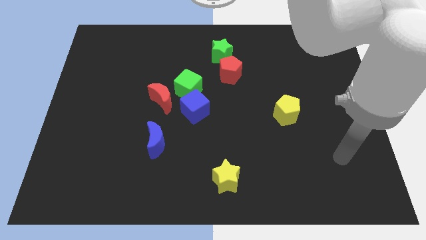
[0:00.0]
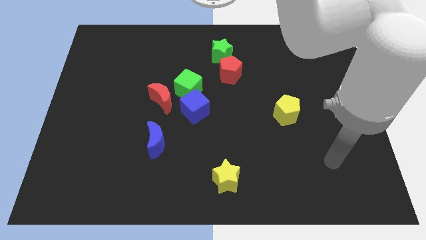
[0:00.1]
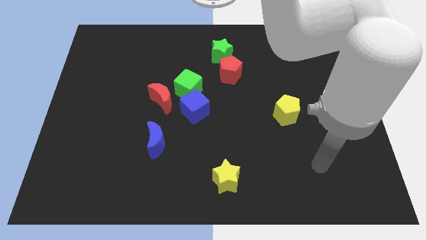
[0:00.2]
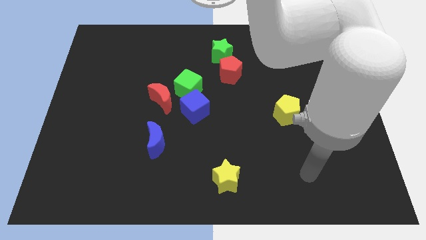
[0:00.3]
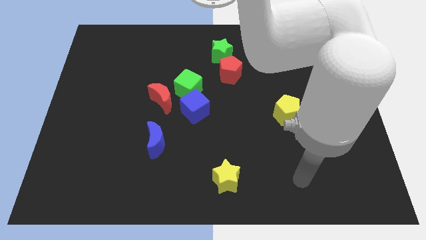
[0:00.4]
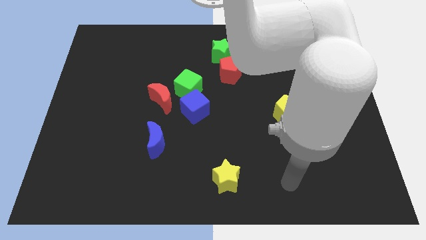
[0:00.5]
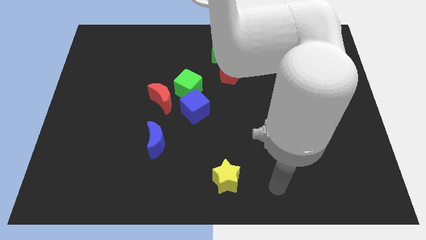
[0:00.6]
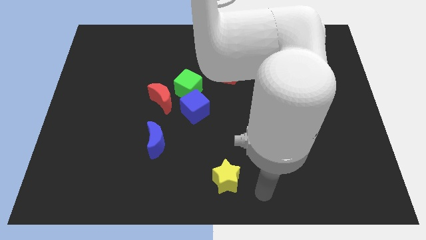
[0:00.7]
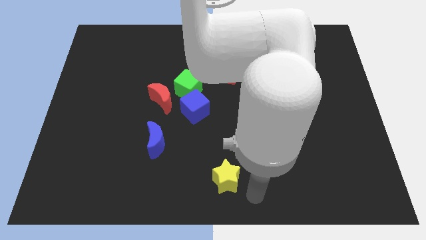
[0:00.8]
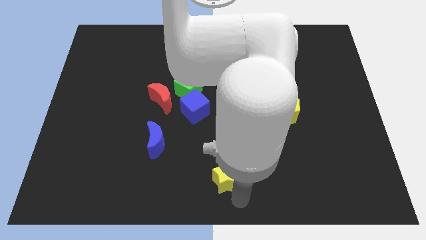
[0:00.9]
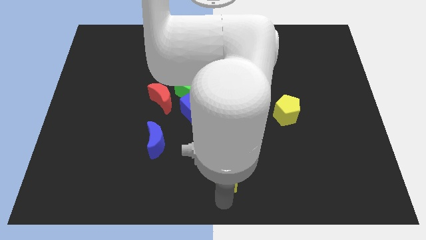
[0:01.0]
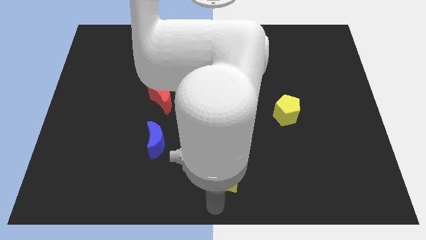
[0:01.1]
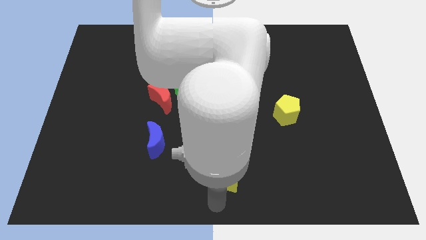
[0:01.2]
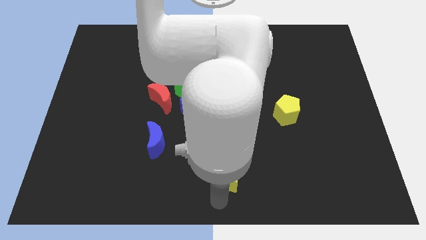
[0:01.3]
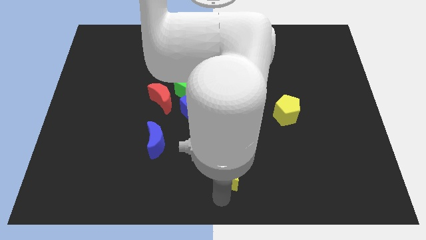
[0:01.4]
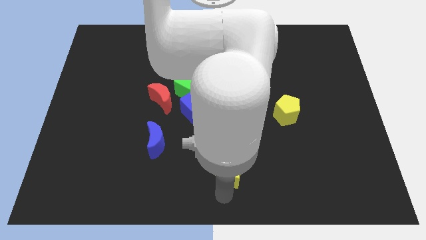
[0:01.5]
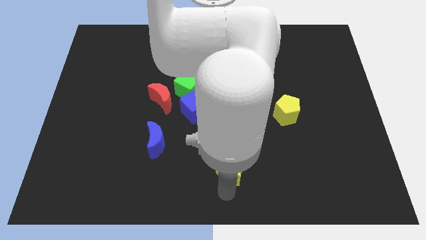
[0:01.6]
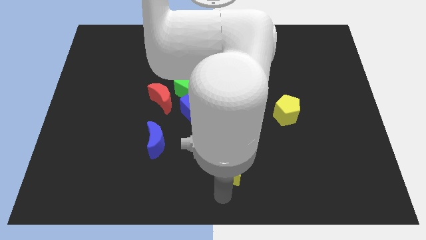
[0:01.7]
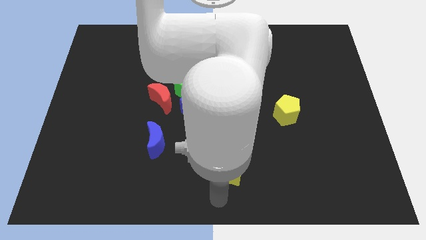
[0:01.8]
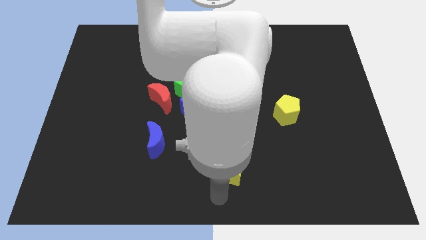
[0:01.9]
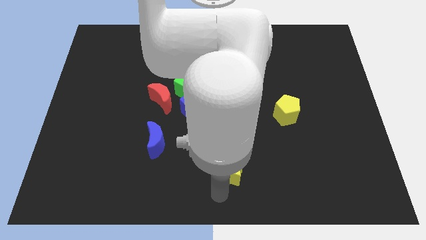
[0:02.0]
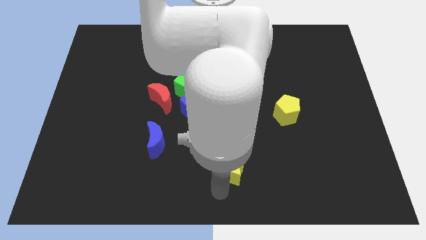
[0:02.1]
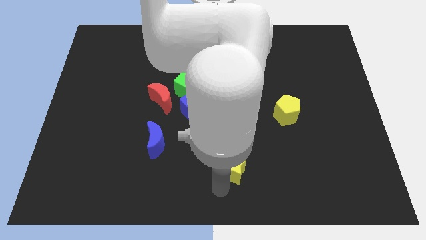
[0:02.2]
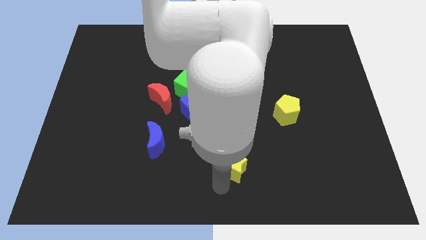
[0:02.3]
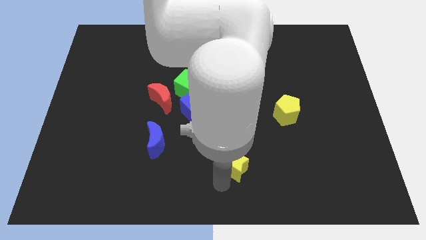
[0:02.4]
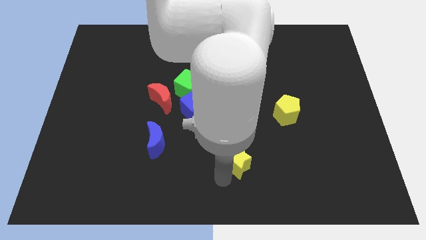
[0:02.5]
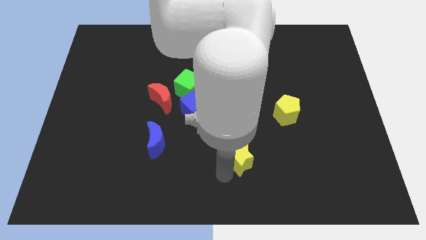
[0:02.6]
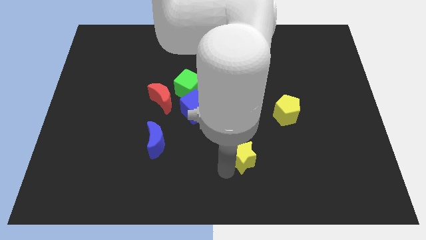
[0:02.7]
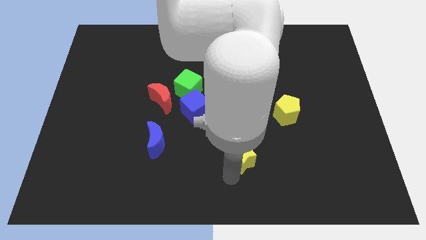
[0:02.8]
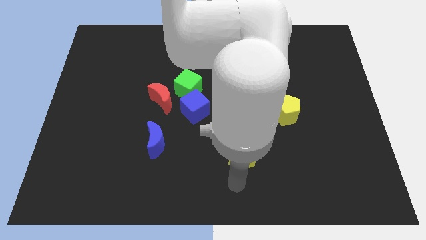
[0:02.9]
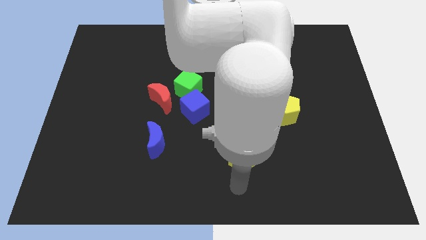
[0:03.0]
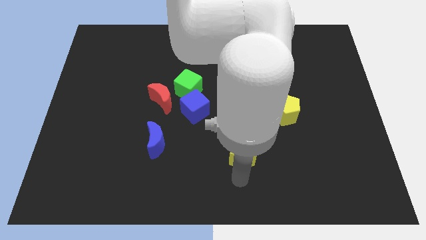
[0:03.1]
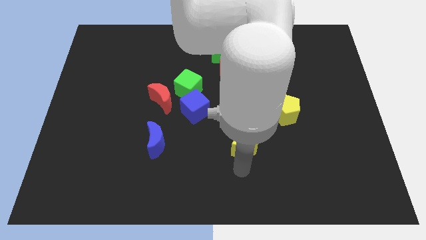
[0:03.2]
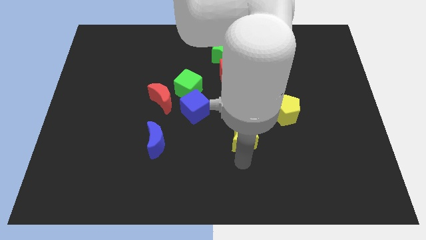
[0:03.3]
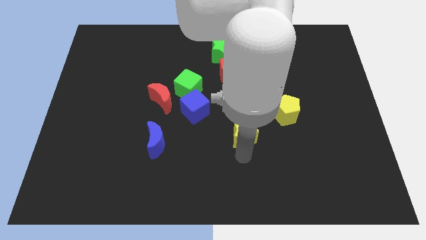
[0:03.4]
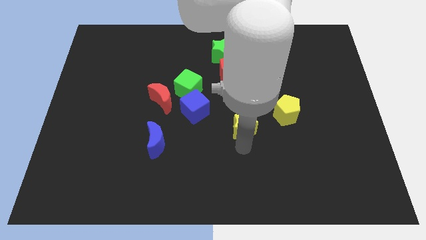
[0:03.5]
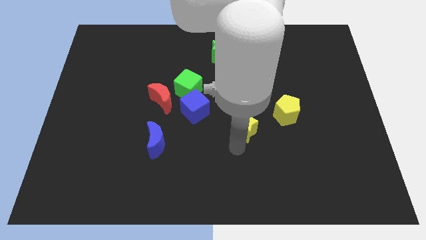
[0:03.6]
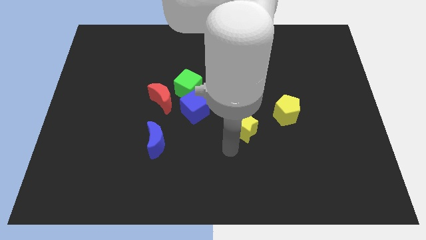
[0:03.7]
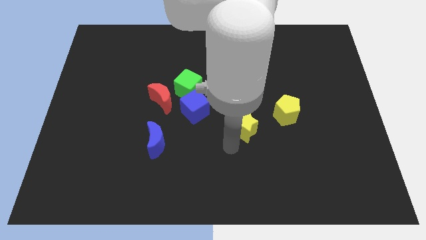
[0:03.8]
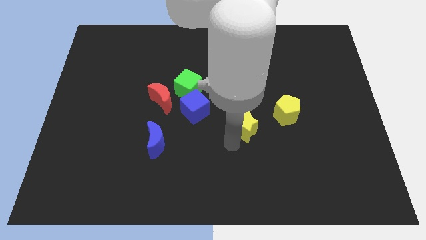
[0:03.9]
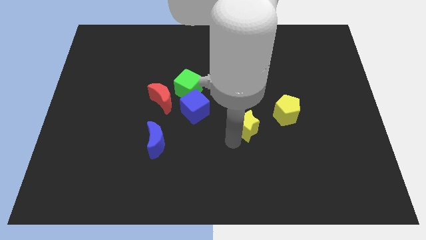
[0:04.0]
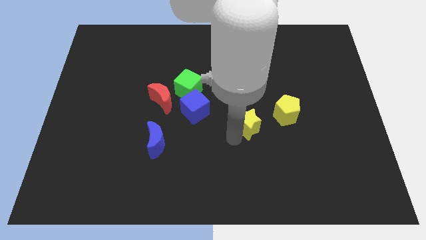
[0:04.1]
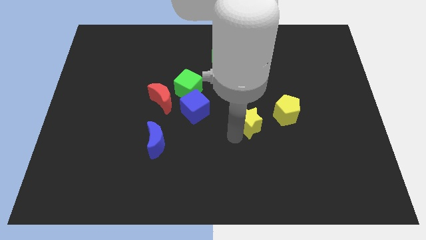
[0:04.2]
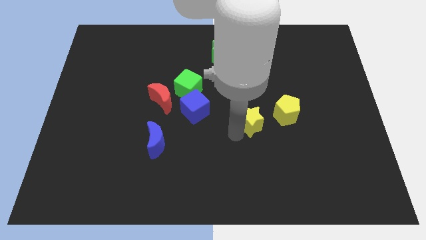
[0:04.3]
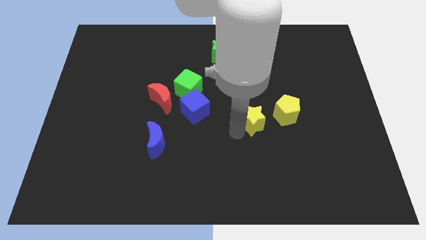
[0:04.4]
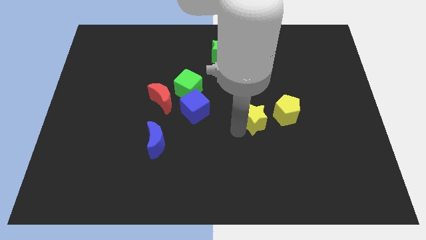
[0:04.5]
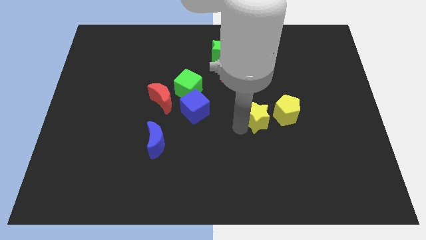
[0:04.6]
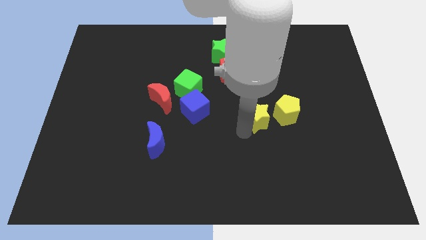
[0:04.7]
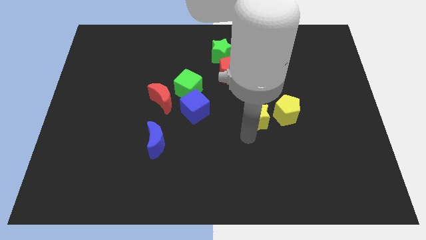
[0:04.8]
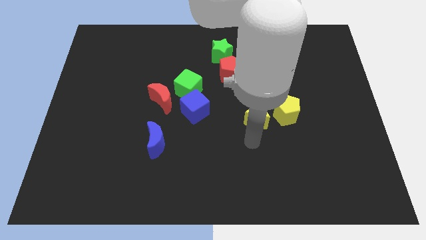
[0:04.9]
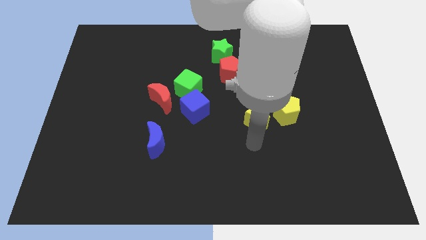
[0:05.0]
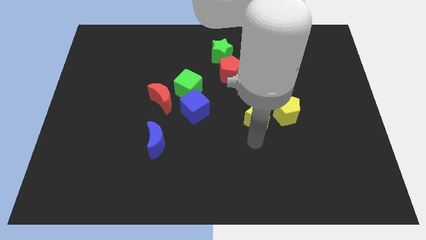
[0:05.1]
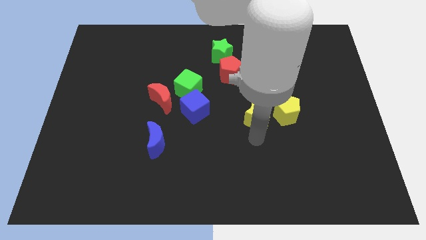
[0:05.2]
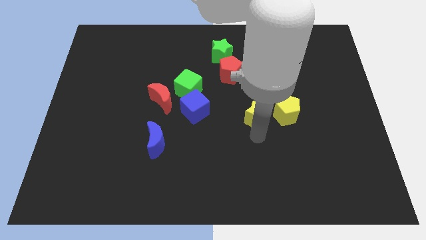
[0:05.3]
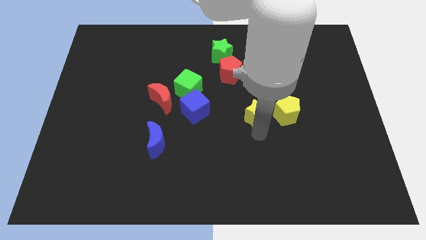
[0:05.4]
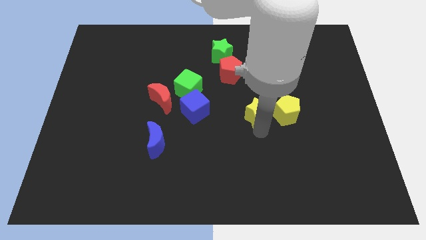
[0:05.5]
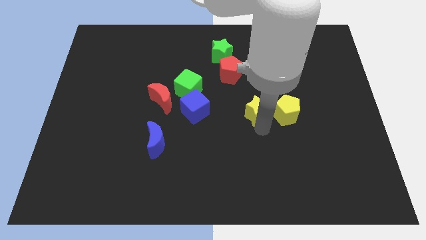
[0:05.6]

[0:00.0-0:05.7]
slide the yellow star to the top left of the yellow pentagon

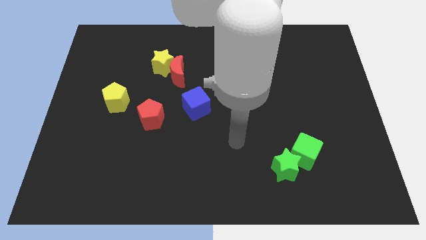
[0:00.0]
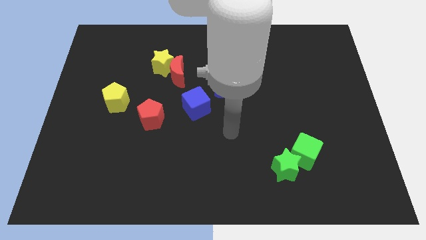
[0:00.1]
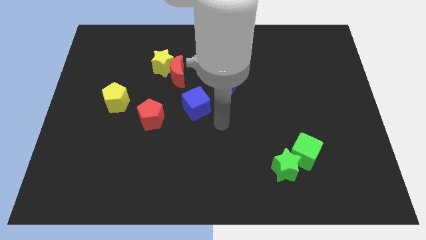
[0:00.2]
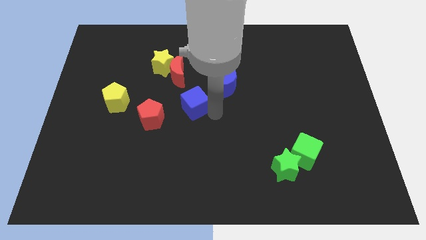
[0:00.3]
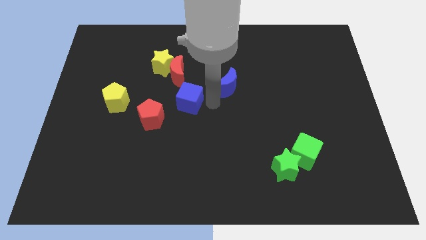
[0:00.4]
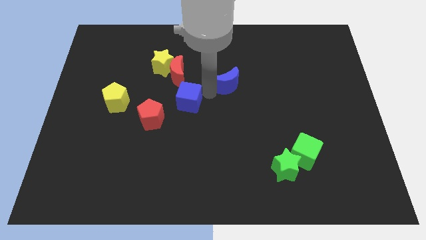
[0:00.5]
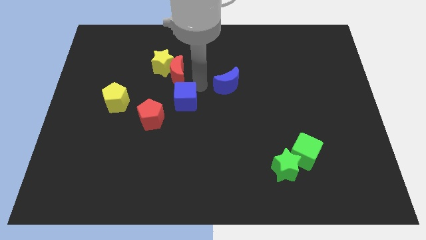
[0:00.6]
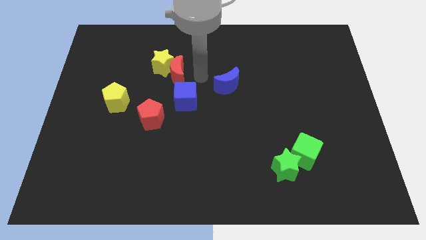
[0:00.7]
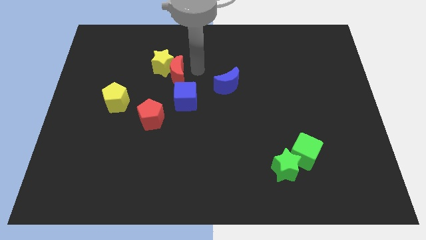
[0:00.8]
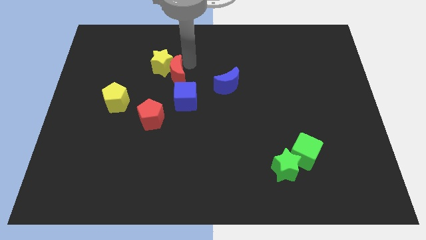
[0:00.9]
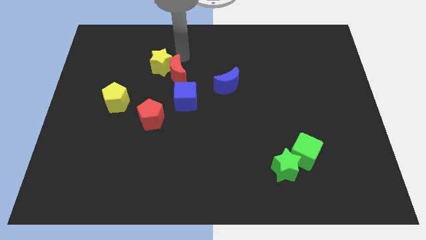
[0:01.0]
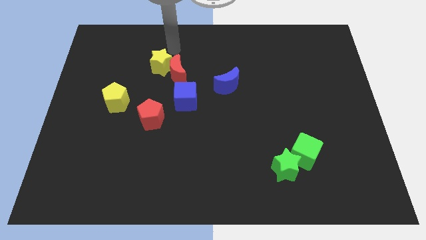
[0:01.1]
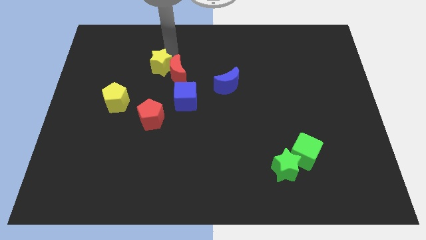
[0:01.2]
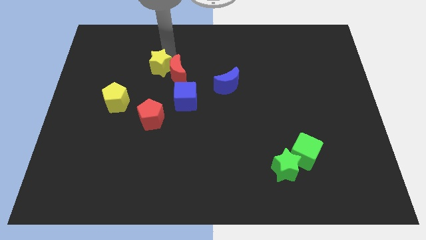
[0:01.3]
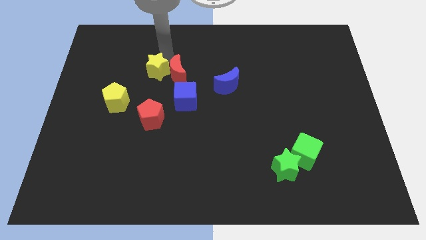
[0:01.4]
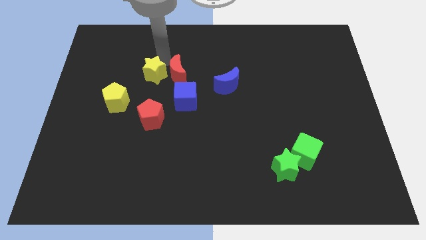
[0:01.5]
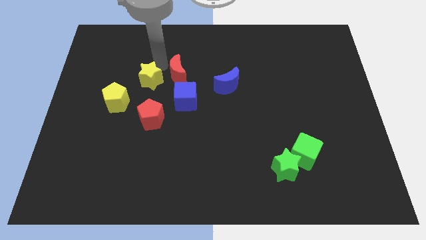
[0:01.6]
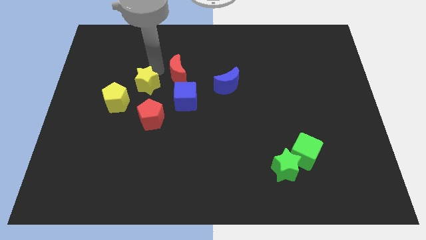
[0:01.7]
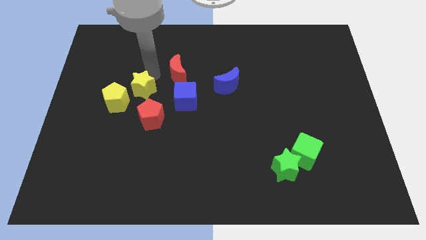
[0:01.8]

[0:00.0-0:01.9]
move the yellow star to the left of the blue cube
